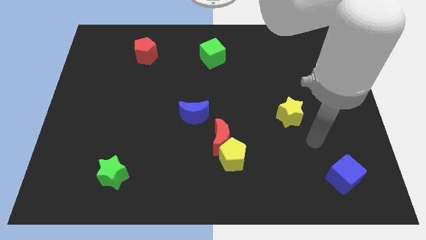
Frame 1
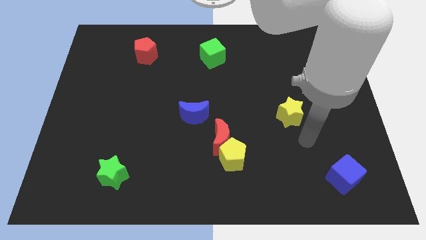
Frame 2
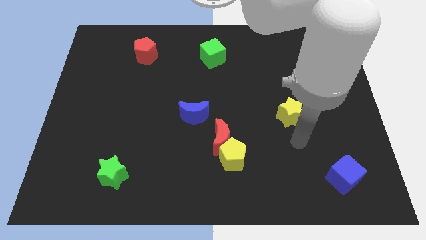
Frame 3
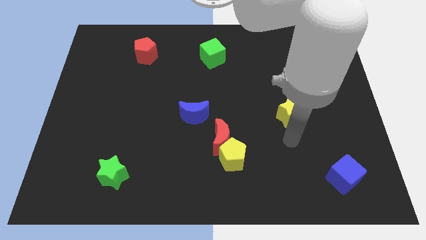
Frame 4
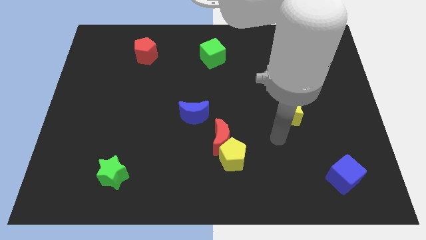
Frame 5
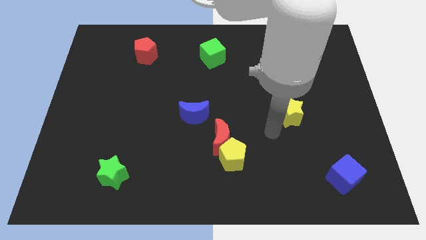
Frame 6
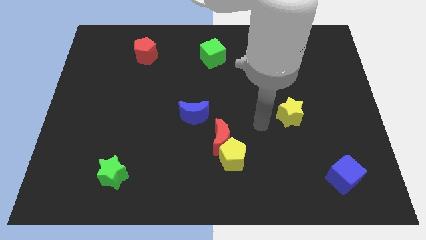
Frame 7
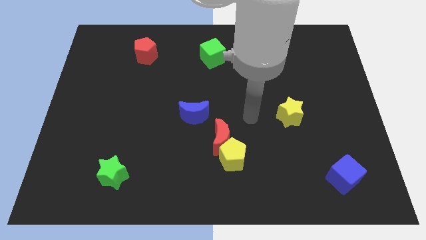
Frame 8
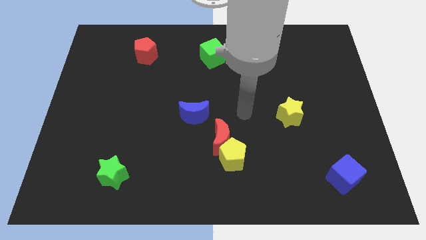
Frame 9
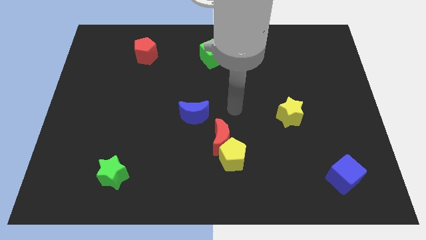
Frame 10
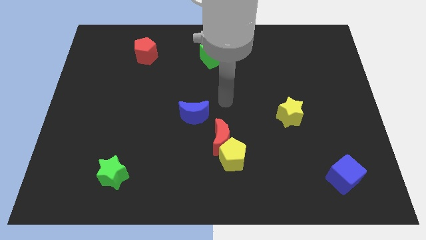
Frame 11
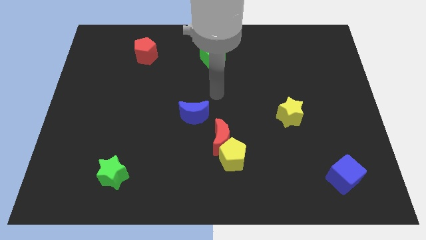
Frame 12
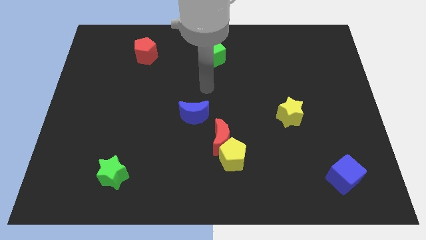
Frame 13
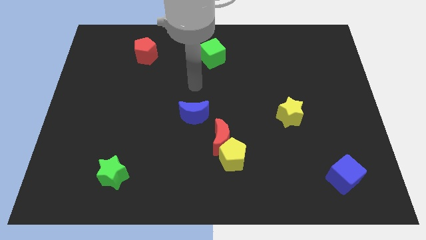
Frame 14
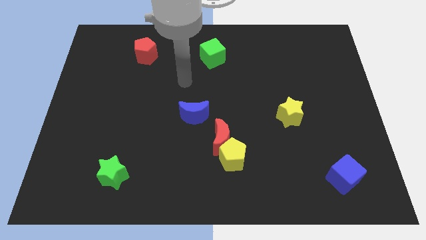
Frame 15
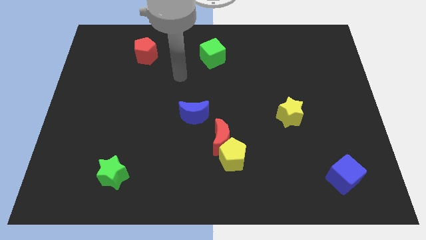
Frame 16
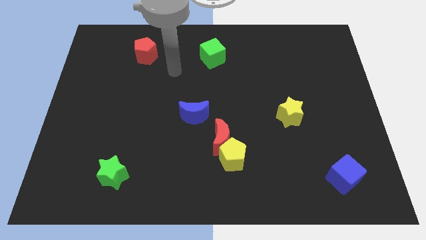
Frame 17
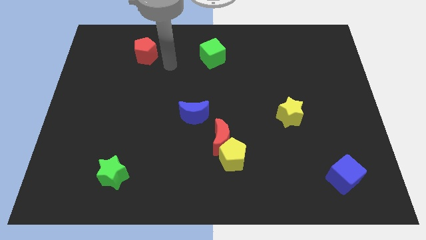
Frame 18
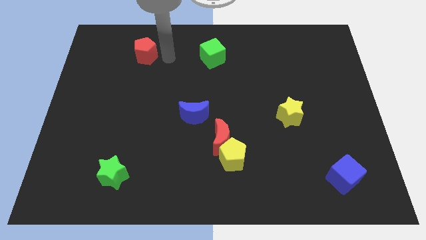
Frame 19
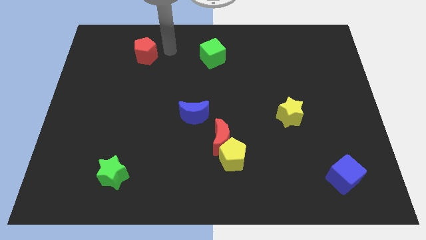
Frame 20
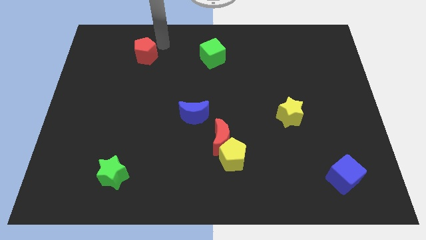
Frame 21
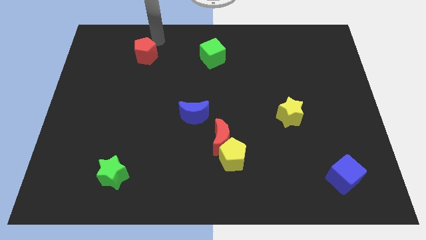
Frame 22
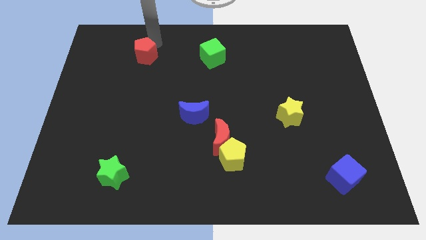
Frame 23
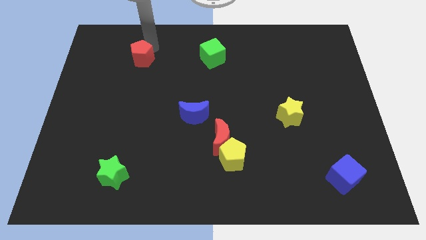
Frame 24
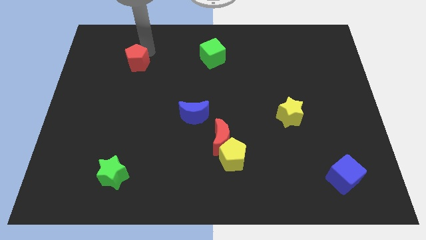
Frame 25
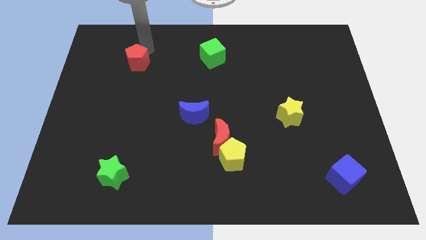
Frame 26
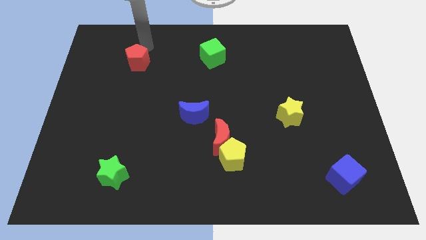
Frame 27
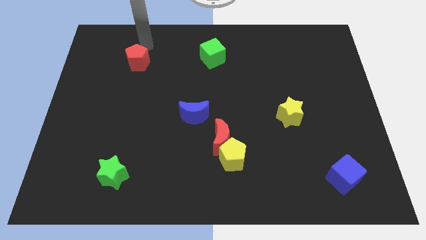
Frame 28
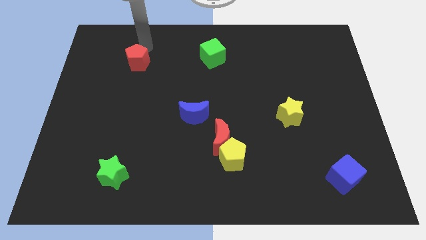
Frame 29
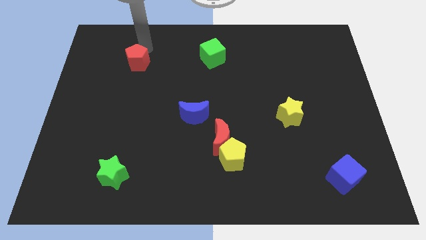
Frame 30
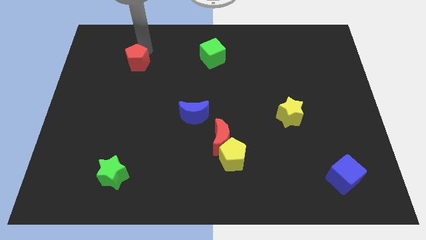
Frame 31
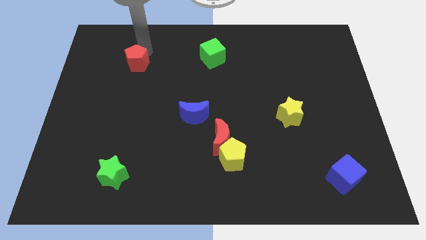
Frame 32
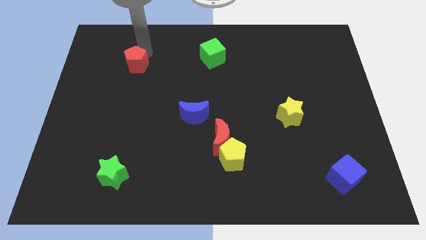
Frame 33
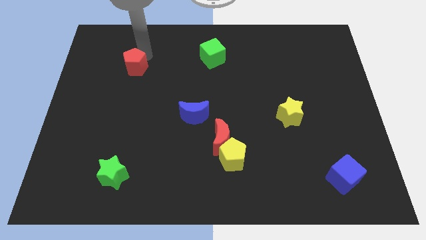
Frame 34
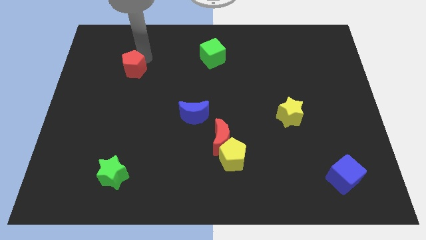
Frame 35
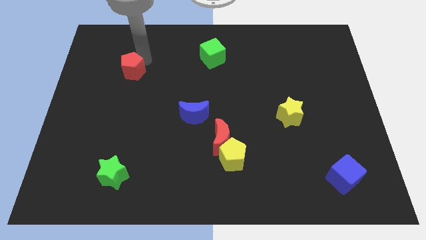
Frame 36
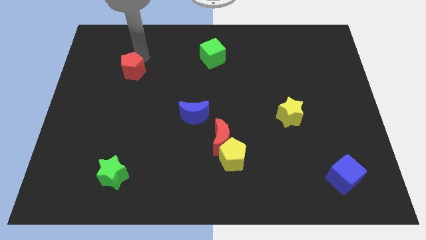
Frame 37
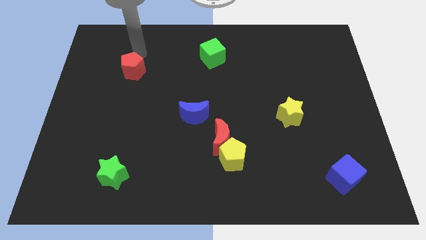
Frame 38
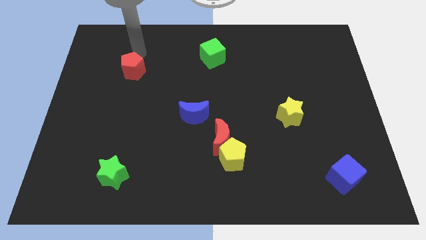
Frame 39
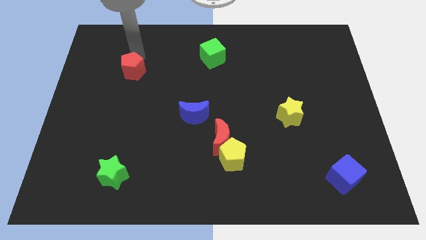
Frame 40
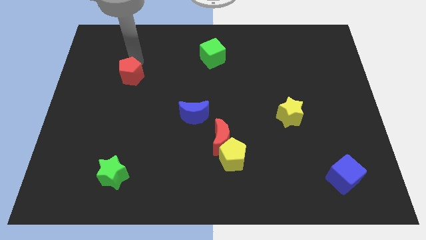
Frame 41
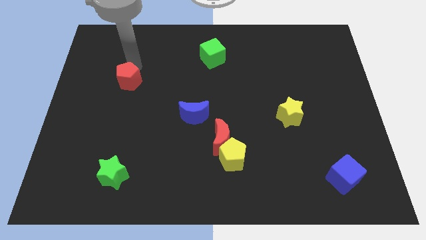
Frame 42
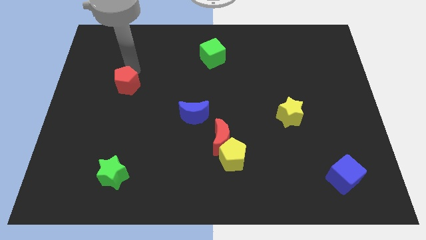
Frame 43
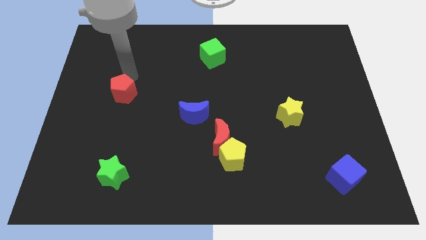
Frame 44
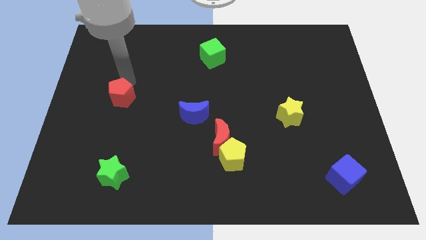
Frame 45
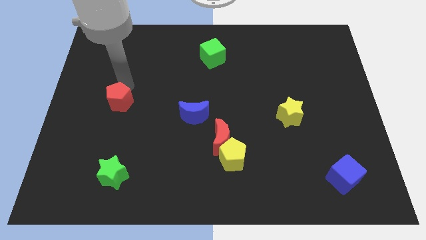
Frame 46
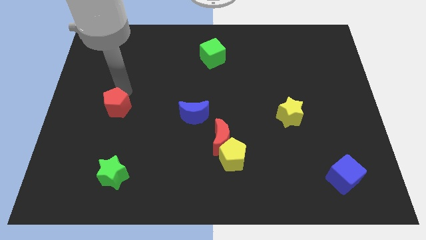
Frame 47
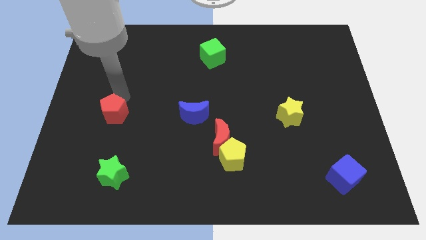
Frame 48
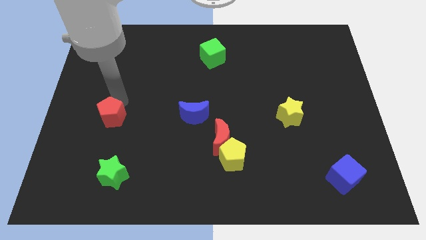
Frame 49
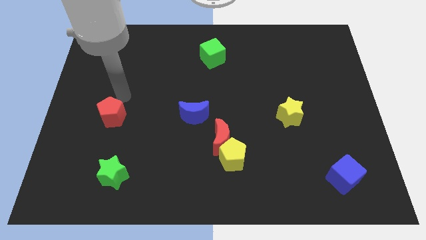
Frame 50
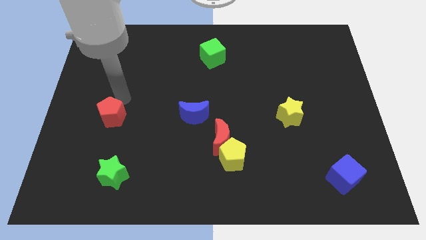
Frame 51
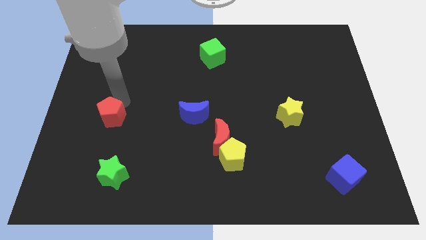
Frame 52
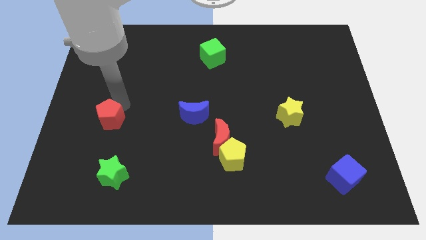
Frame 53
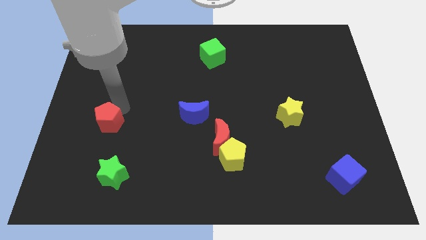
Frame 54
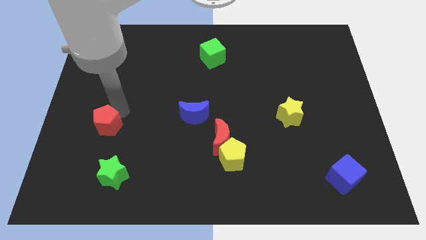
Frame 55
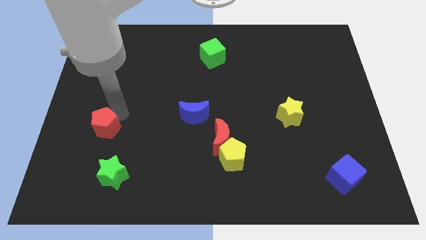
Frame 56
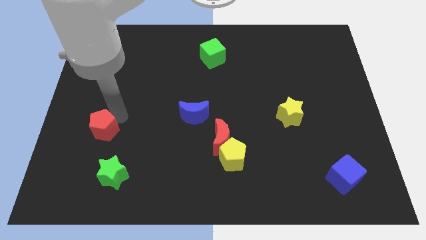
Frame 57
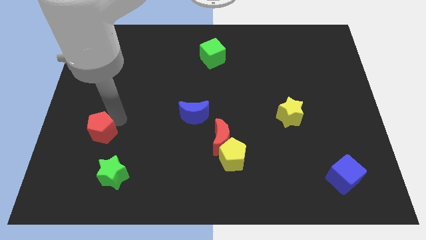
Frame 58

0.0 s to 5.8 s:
put the red pentagon to the top left of the green star

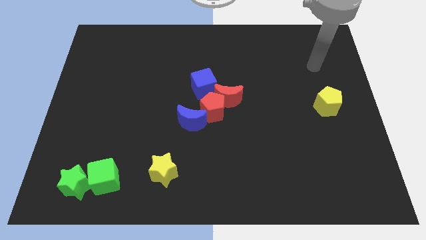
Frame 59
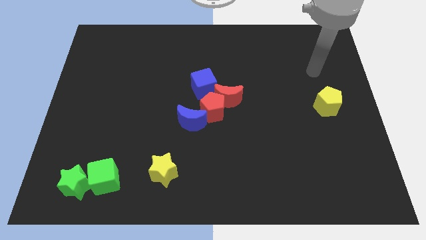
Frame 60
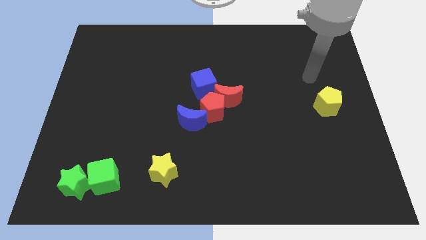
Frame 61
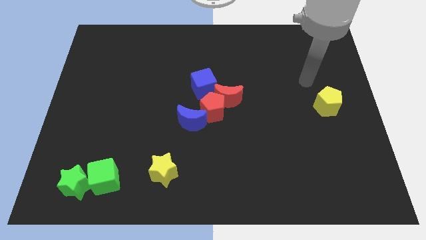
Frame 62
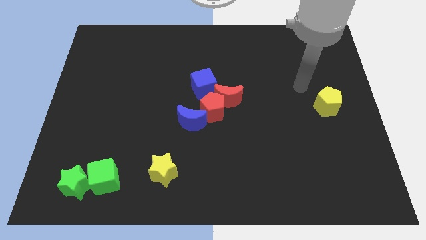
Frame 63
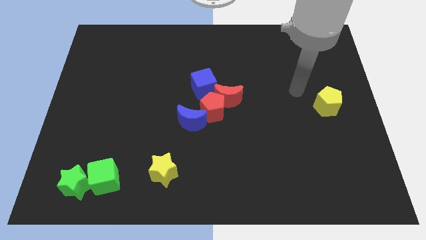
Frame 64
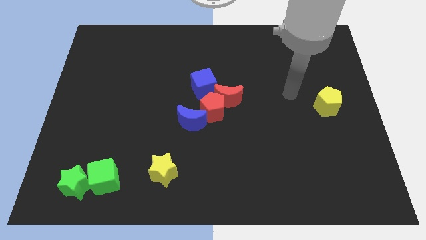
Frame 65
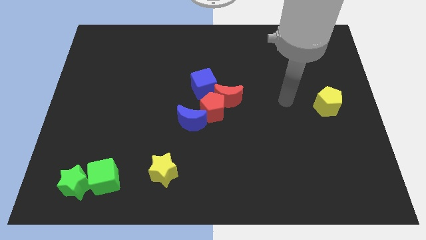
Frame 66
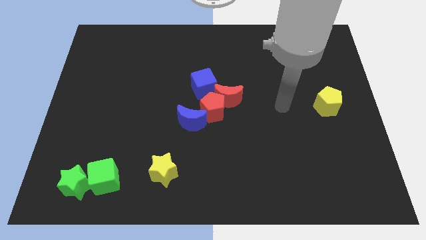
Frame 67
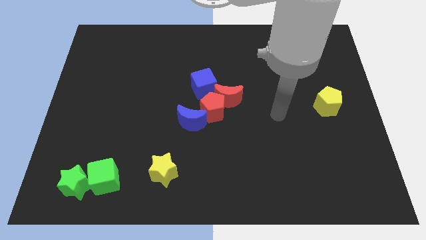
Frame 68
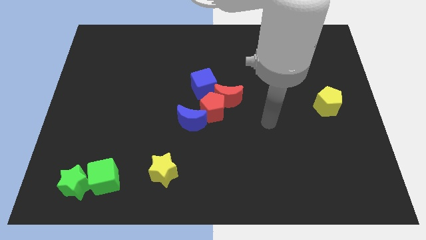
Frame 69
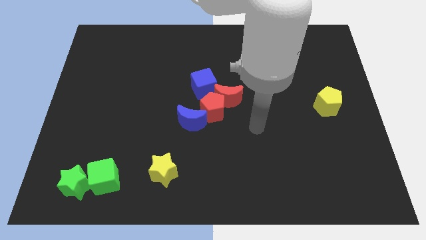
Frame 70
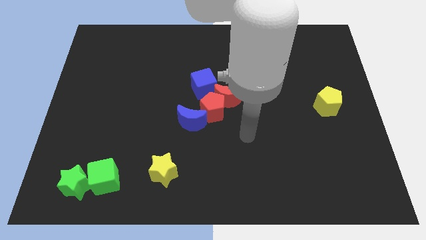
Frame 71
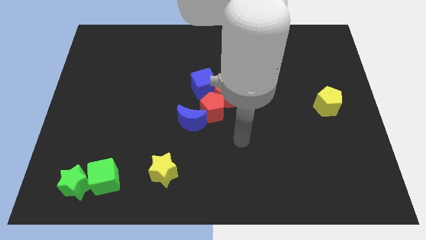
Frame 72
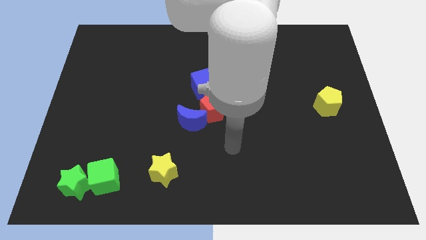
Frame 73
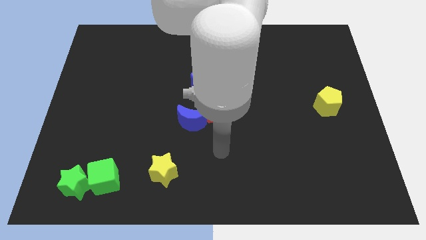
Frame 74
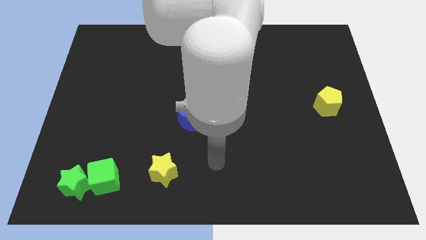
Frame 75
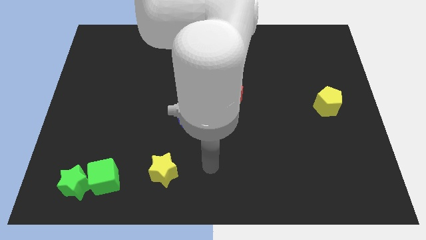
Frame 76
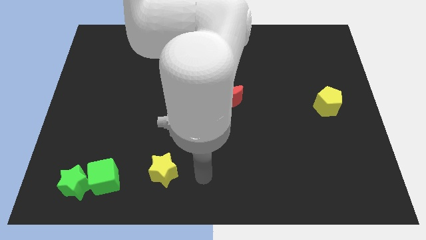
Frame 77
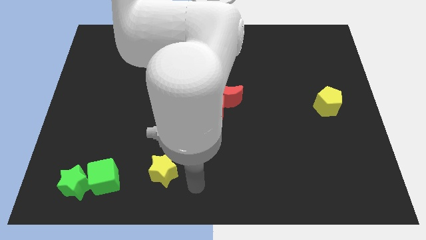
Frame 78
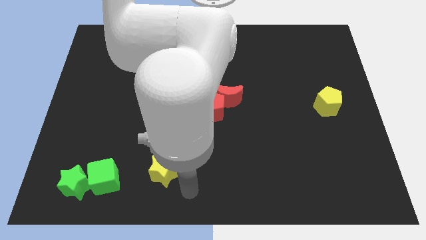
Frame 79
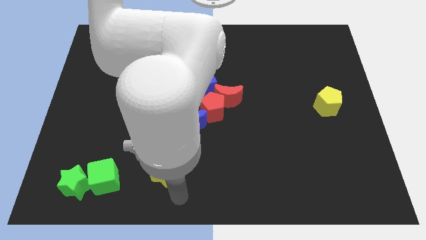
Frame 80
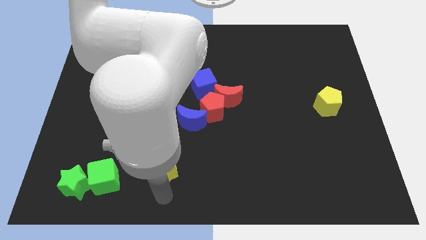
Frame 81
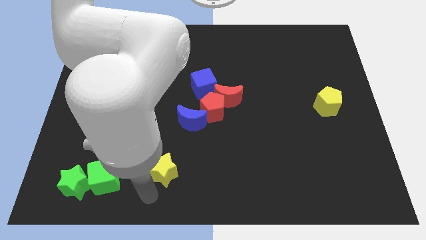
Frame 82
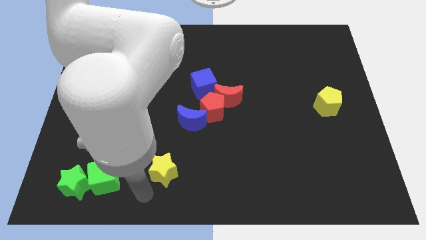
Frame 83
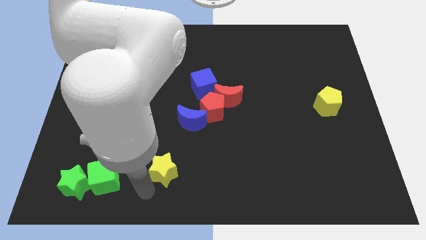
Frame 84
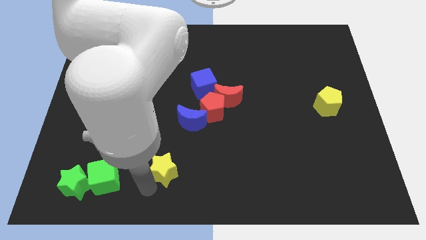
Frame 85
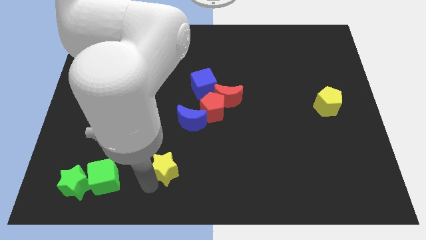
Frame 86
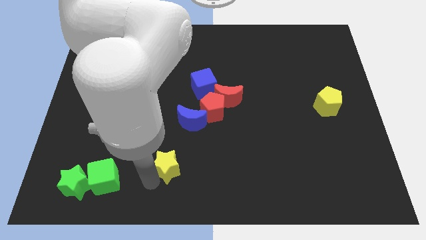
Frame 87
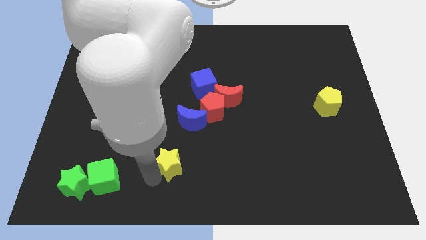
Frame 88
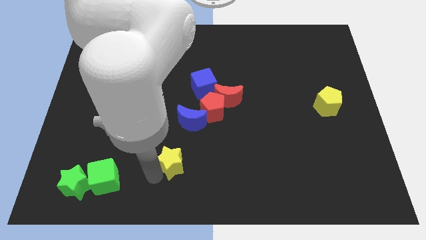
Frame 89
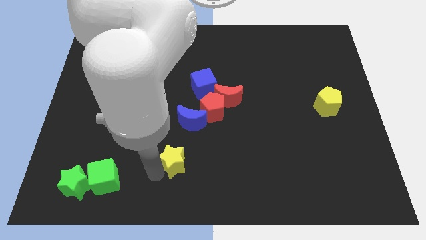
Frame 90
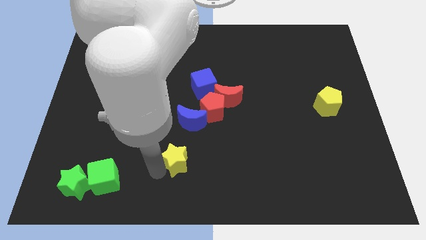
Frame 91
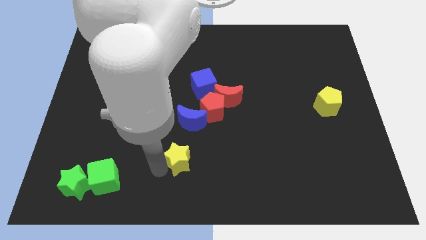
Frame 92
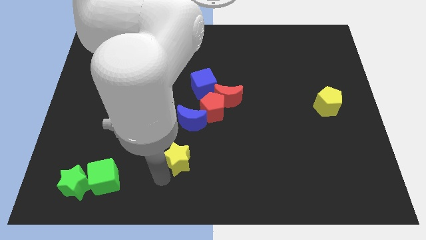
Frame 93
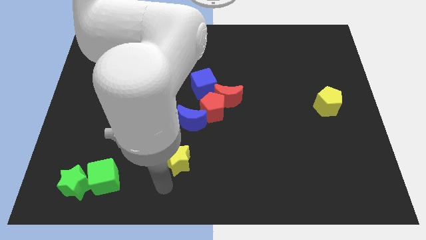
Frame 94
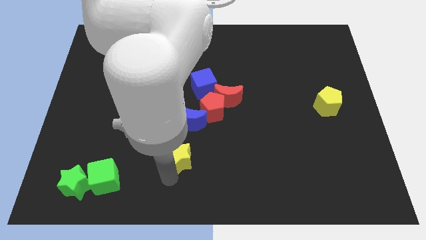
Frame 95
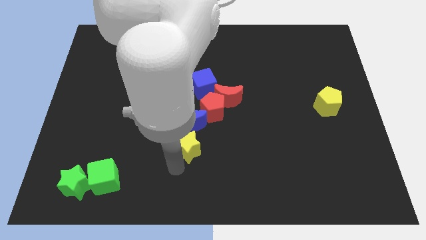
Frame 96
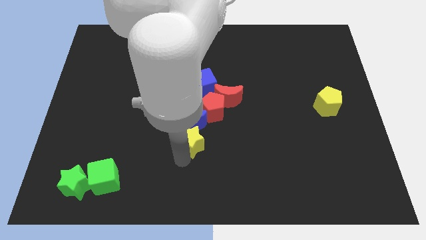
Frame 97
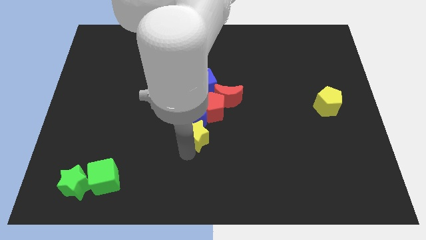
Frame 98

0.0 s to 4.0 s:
push the yellow star to the bottom side of the blue cube
